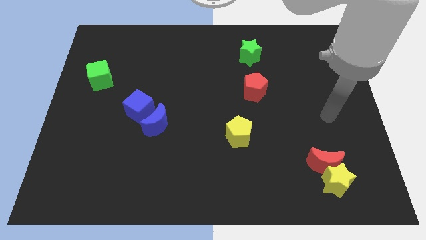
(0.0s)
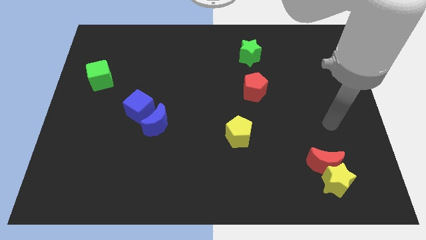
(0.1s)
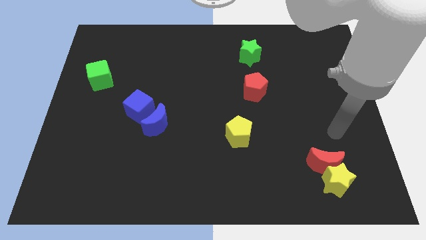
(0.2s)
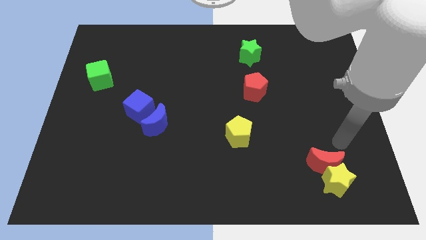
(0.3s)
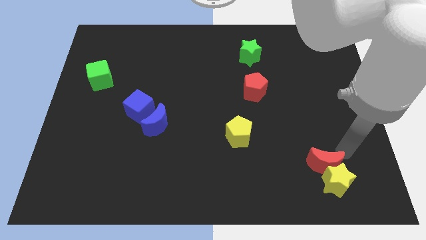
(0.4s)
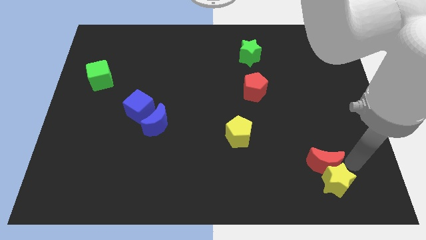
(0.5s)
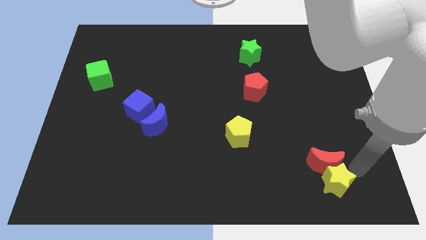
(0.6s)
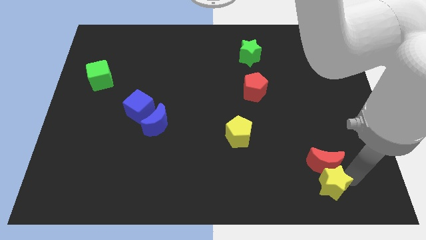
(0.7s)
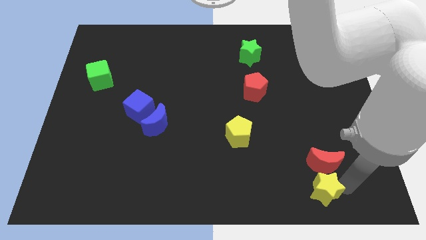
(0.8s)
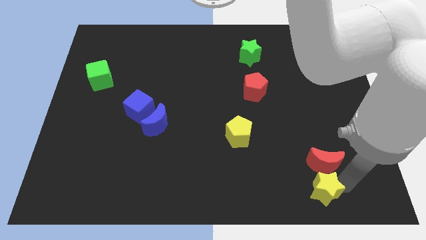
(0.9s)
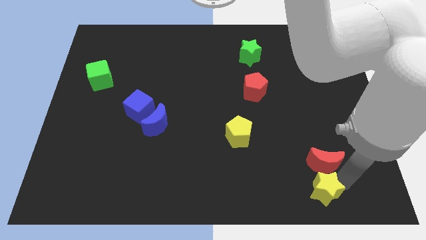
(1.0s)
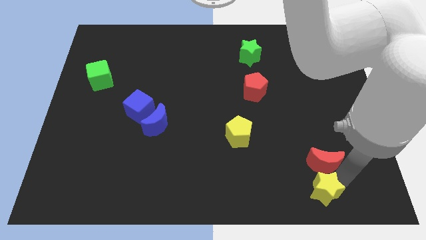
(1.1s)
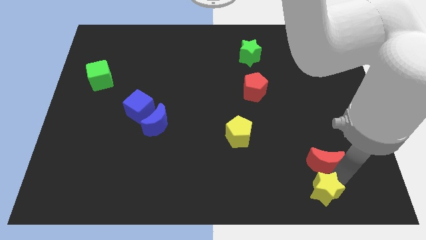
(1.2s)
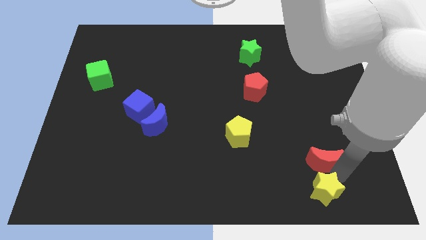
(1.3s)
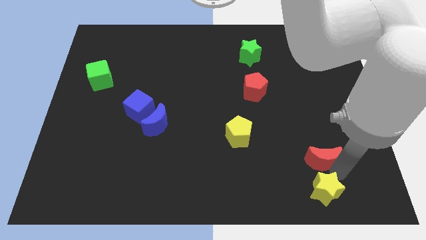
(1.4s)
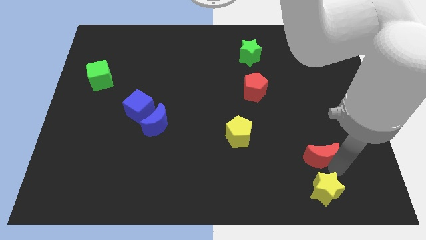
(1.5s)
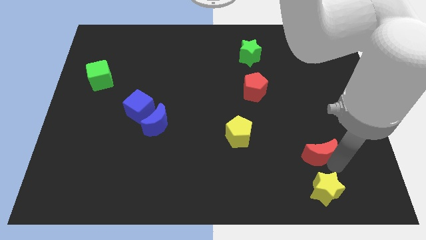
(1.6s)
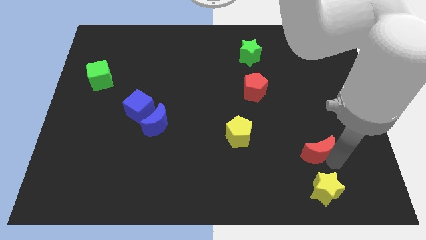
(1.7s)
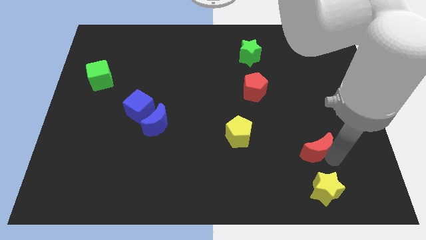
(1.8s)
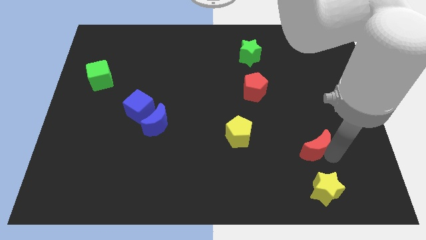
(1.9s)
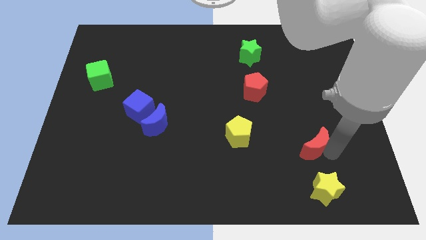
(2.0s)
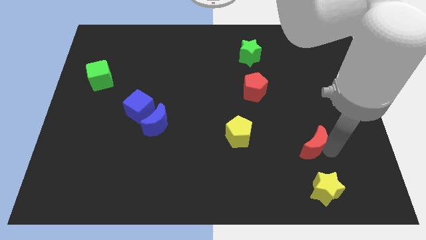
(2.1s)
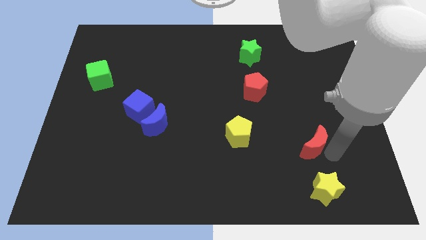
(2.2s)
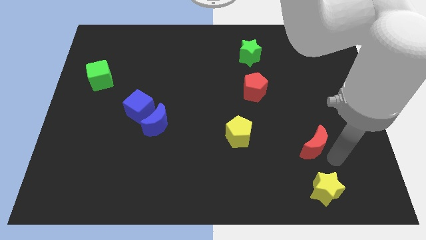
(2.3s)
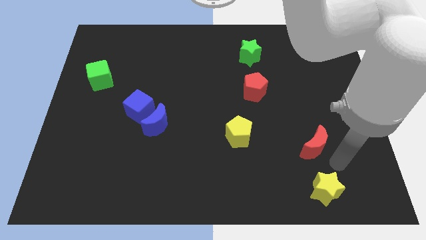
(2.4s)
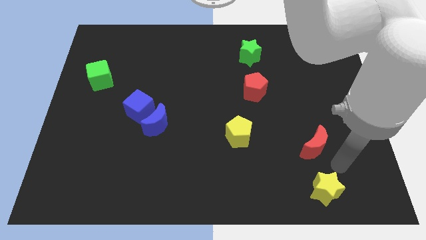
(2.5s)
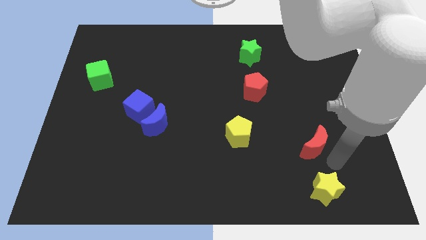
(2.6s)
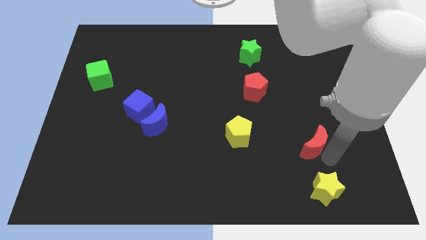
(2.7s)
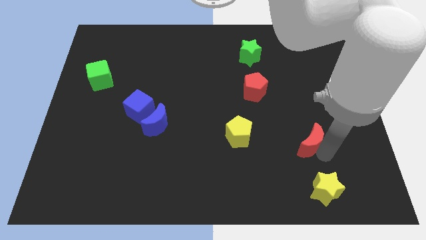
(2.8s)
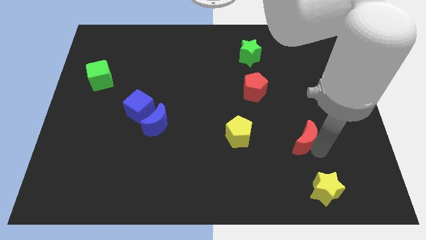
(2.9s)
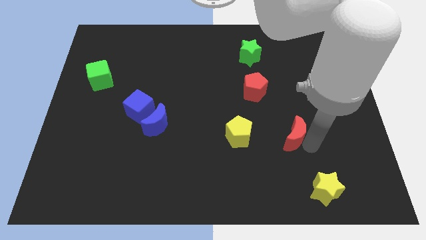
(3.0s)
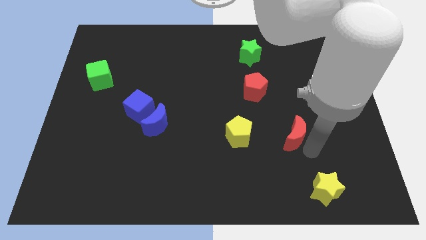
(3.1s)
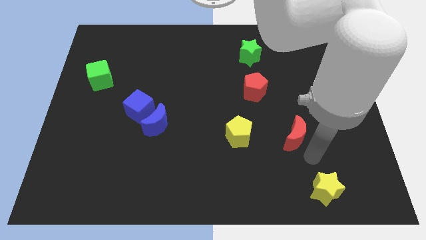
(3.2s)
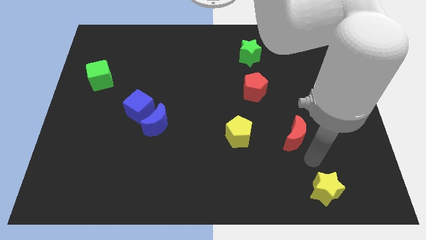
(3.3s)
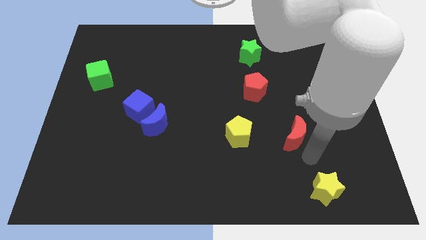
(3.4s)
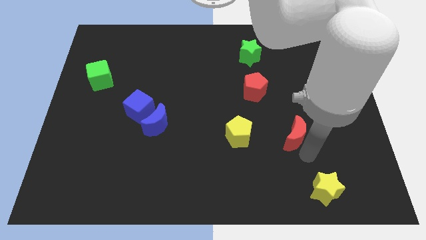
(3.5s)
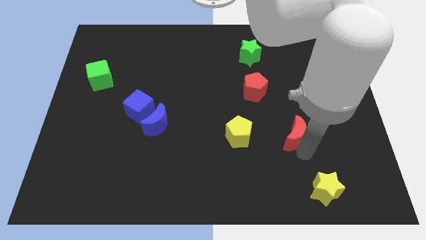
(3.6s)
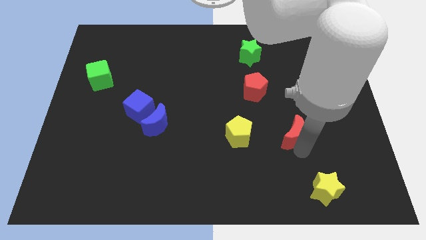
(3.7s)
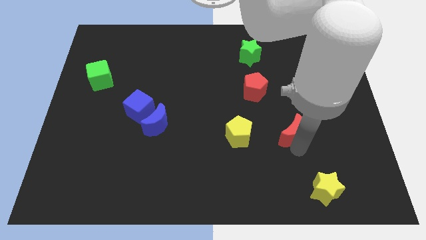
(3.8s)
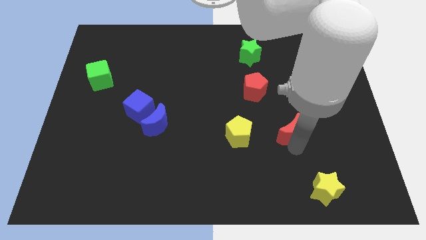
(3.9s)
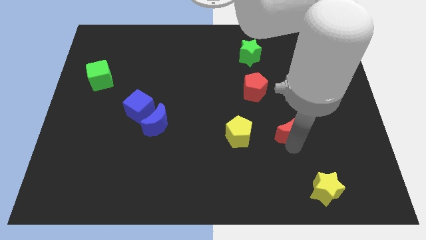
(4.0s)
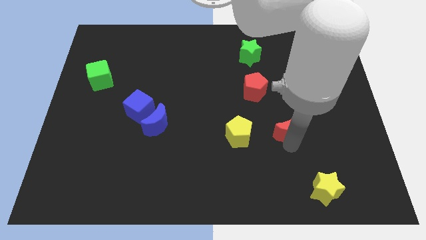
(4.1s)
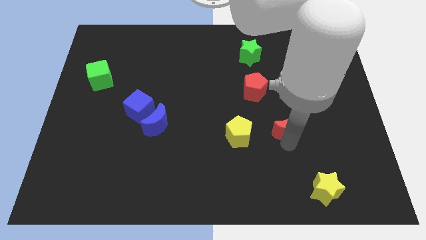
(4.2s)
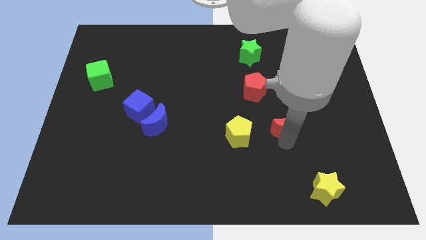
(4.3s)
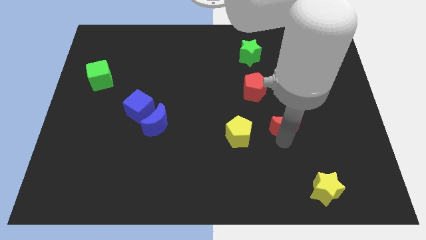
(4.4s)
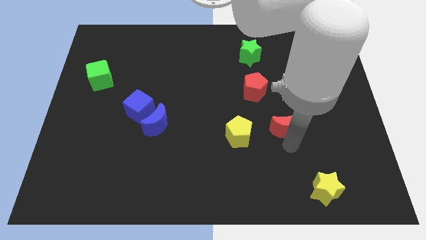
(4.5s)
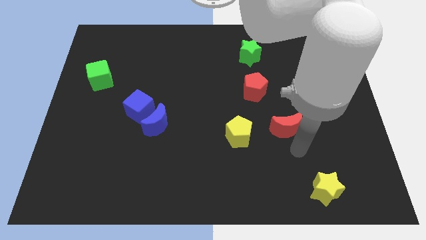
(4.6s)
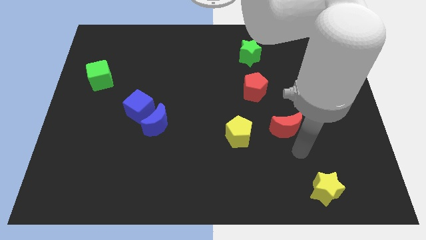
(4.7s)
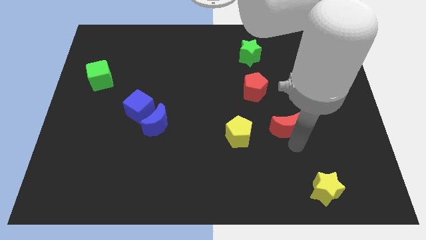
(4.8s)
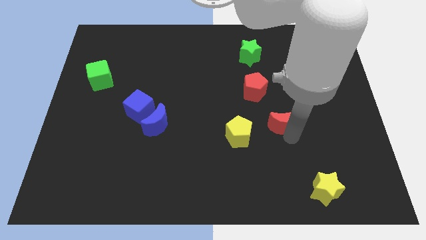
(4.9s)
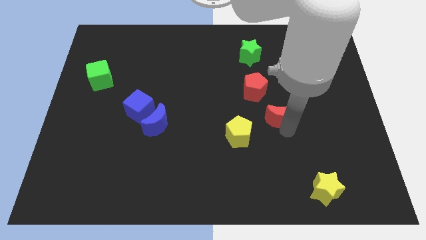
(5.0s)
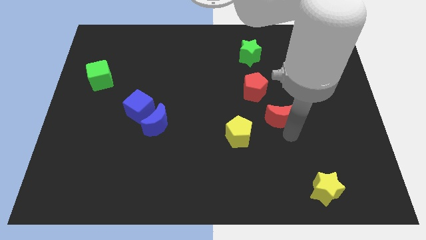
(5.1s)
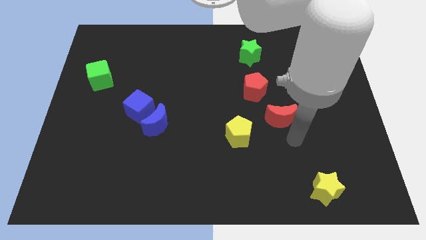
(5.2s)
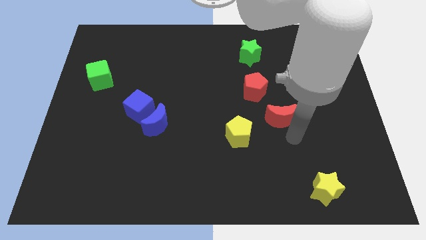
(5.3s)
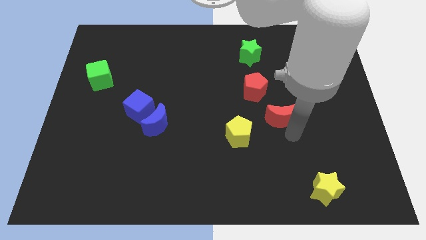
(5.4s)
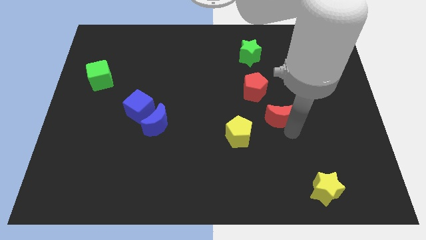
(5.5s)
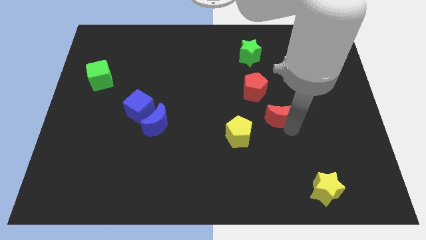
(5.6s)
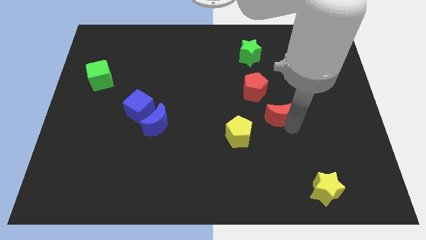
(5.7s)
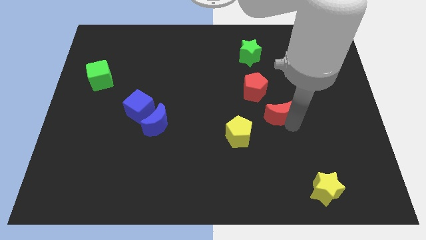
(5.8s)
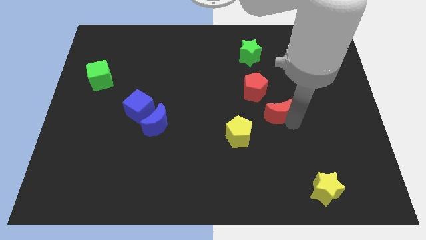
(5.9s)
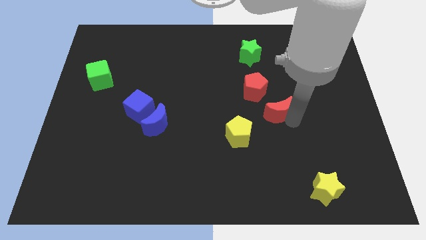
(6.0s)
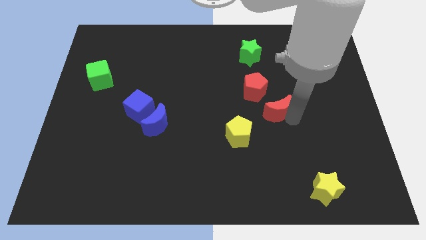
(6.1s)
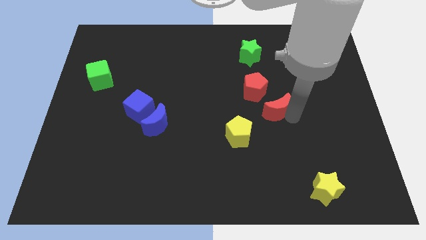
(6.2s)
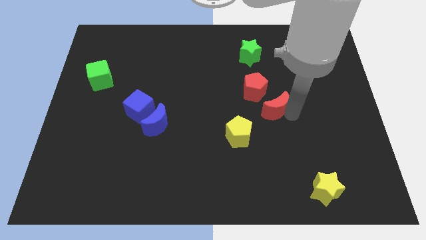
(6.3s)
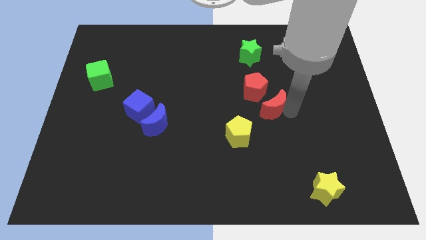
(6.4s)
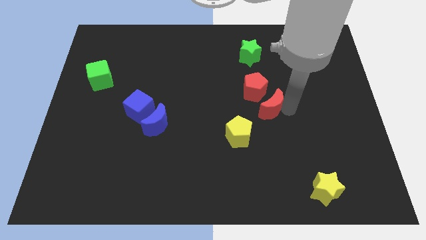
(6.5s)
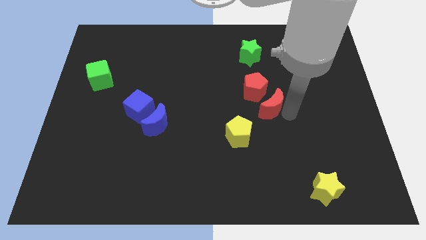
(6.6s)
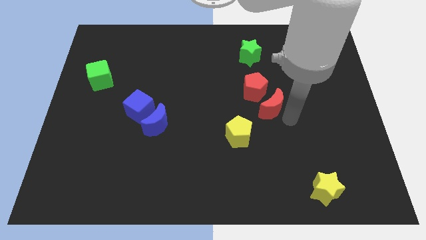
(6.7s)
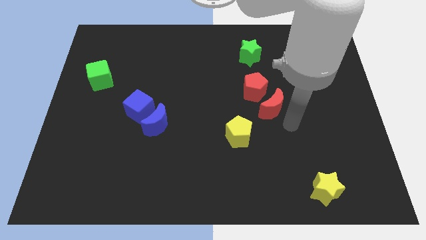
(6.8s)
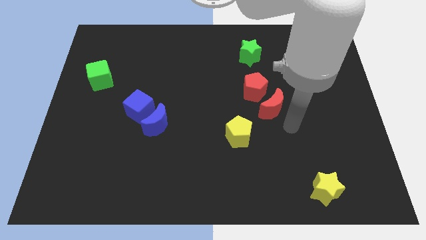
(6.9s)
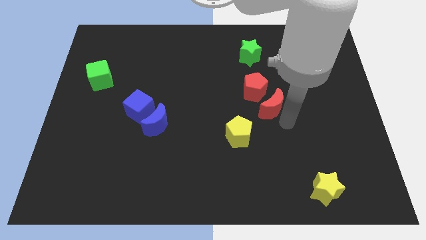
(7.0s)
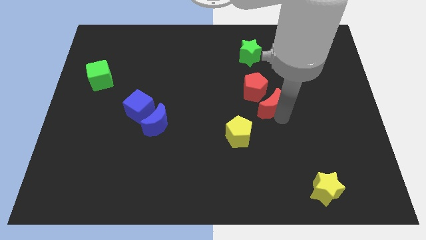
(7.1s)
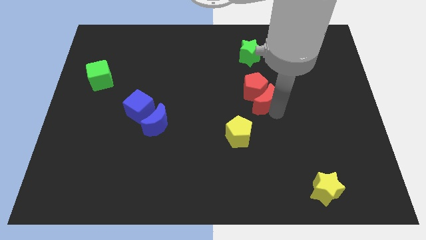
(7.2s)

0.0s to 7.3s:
put the red moon to the red pentagon

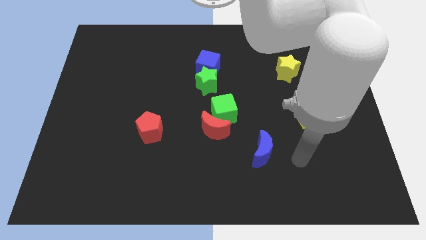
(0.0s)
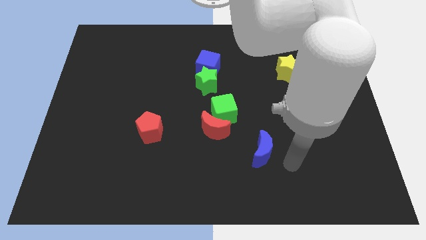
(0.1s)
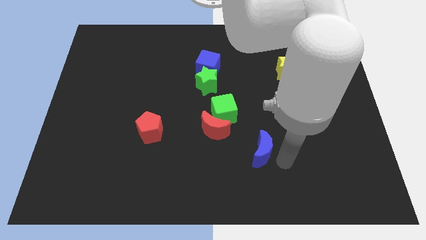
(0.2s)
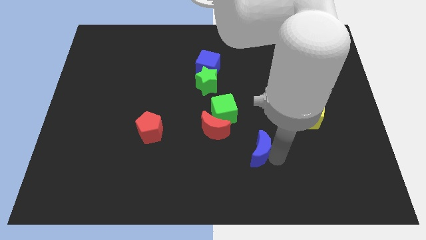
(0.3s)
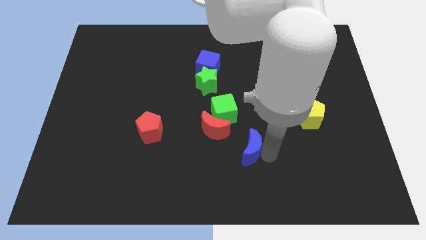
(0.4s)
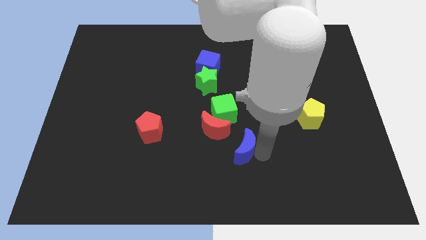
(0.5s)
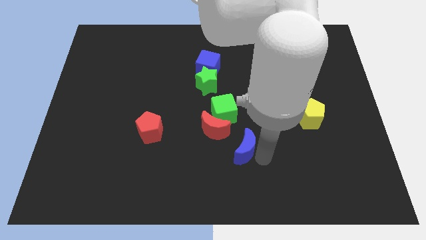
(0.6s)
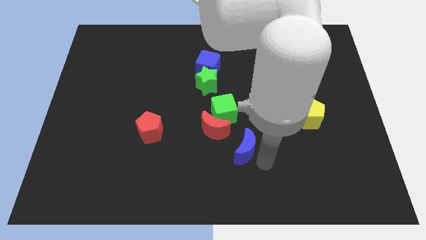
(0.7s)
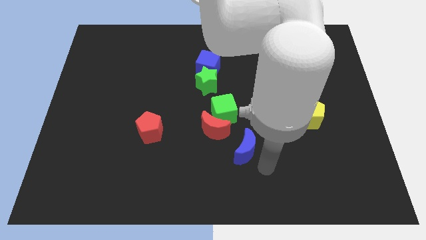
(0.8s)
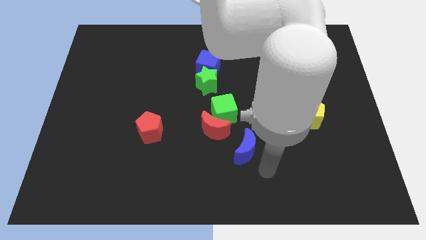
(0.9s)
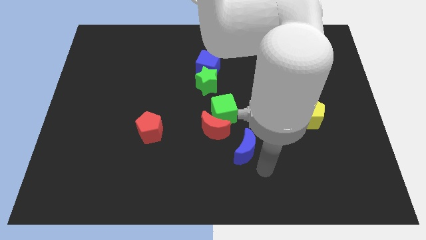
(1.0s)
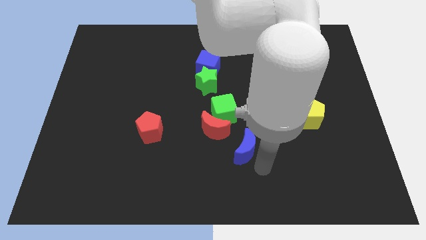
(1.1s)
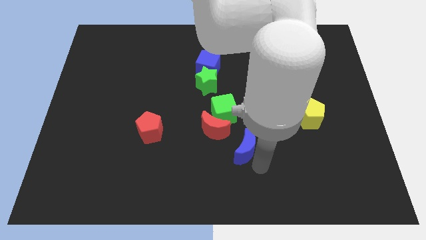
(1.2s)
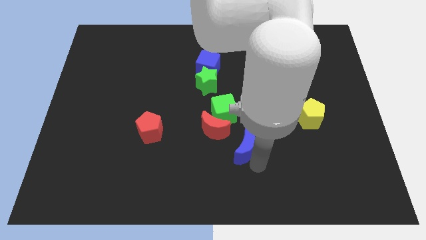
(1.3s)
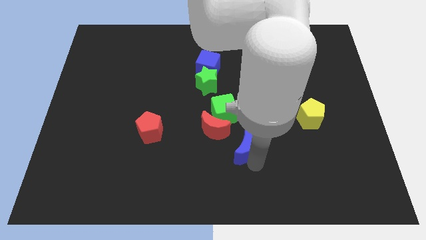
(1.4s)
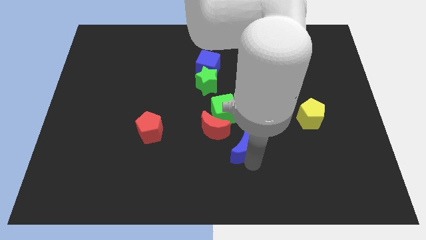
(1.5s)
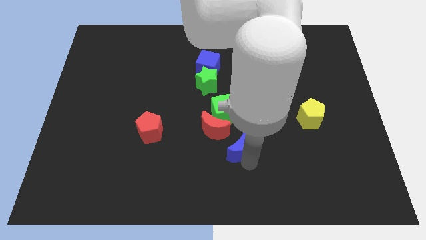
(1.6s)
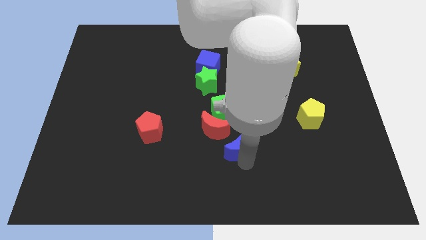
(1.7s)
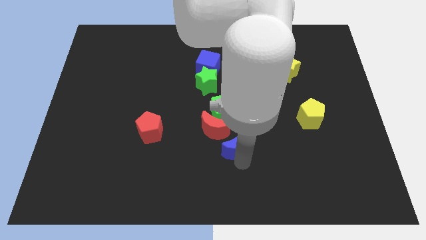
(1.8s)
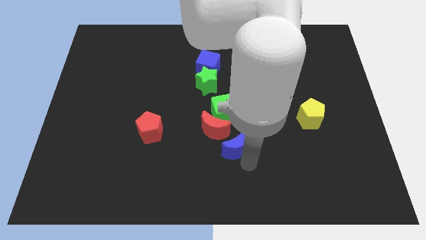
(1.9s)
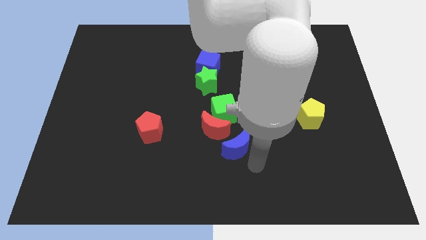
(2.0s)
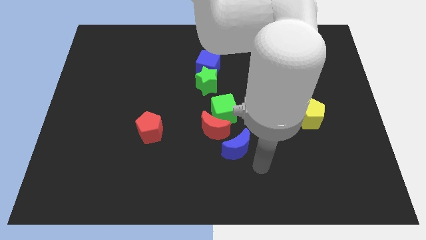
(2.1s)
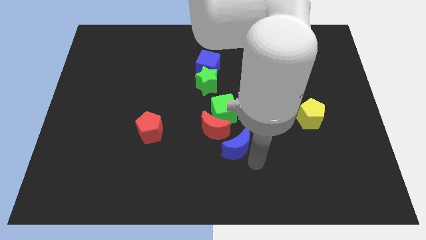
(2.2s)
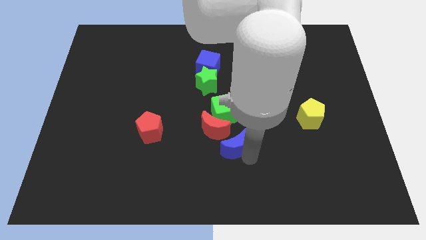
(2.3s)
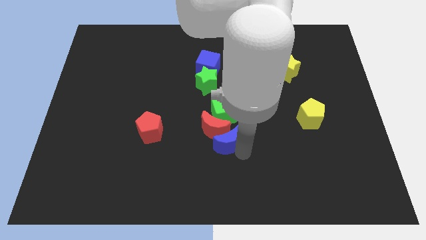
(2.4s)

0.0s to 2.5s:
put the blue moon towards the red moon
